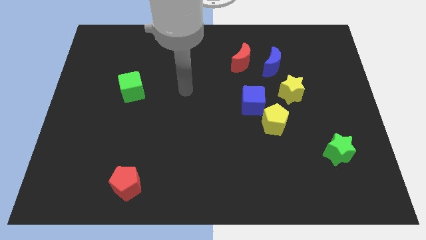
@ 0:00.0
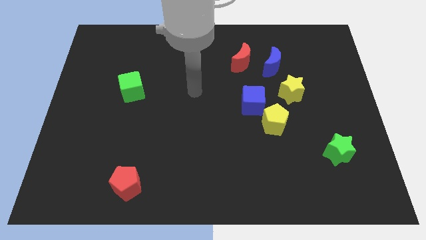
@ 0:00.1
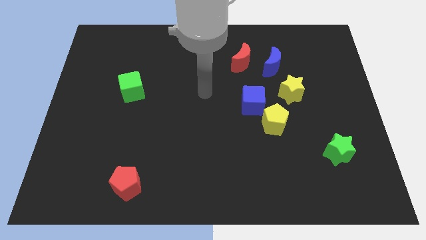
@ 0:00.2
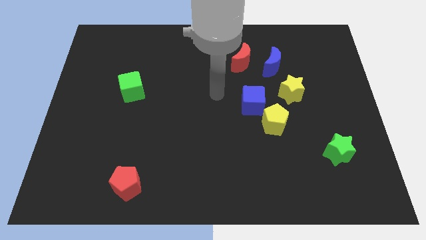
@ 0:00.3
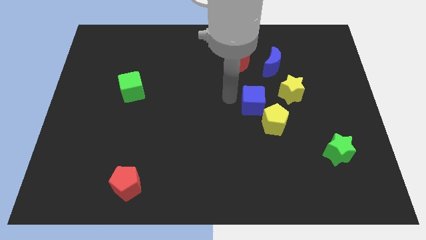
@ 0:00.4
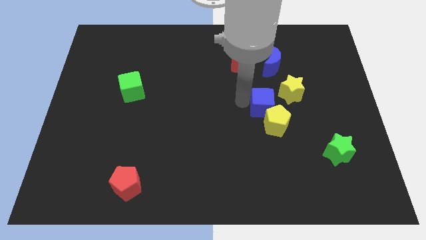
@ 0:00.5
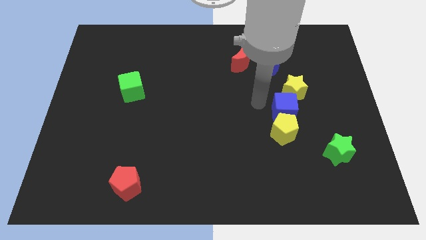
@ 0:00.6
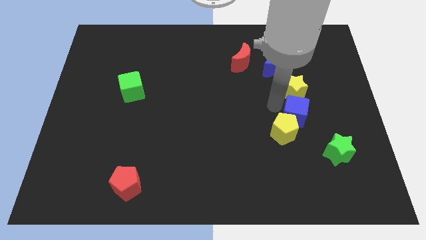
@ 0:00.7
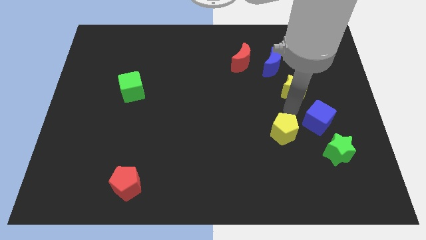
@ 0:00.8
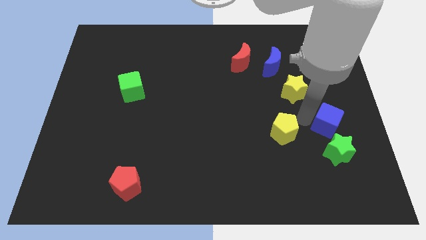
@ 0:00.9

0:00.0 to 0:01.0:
separate the yellow pentagon from the blue cube

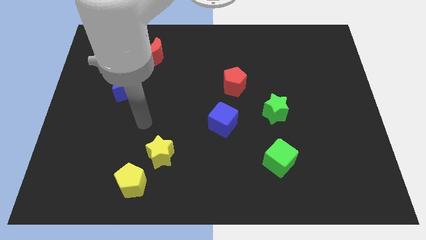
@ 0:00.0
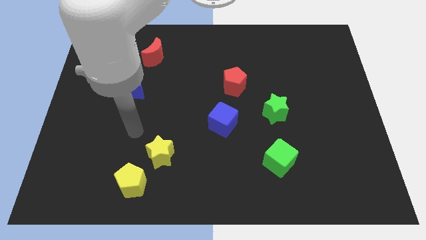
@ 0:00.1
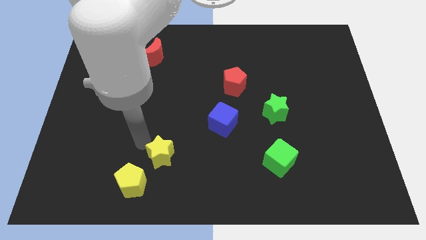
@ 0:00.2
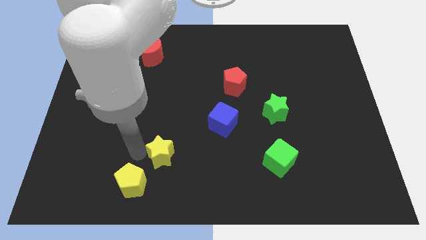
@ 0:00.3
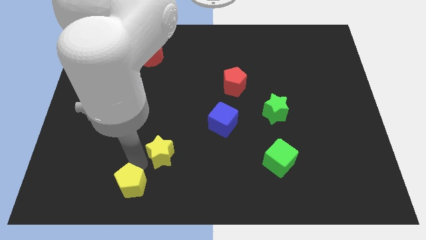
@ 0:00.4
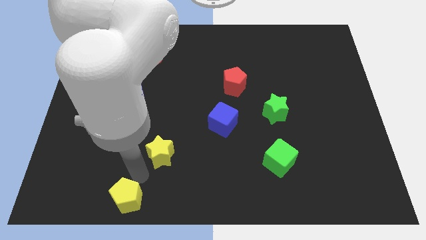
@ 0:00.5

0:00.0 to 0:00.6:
pull the yellow star apart from the yellow pentagon

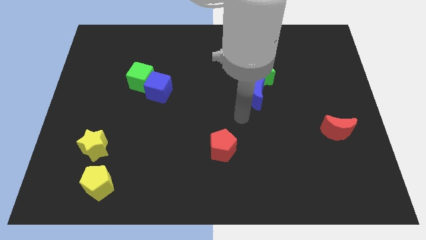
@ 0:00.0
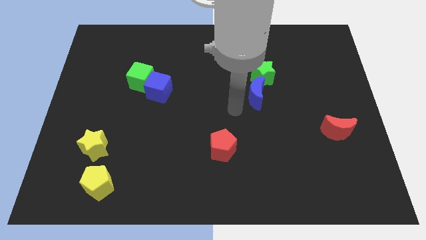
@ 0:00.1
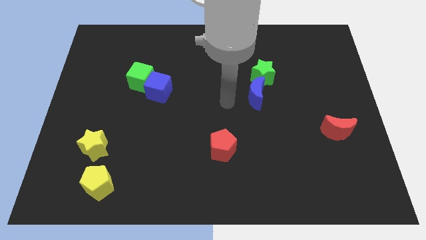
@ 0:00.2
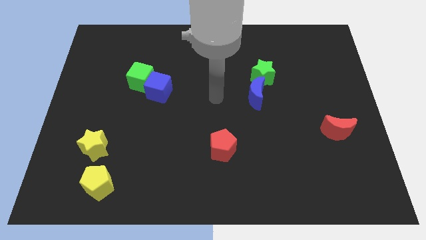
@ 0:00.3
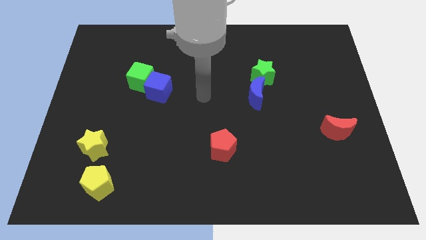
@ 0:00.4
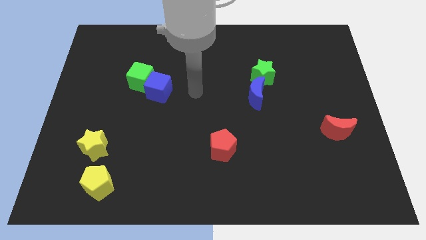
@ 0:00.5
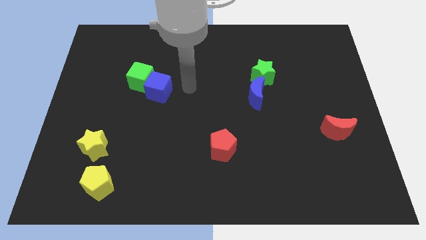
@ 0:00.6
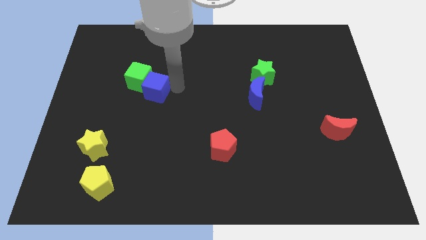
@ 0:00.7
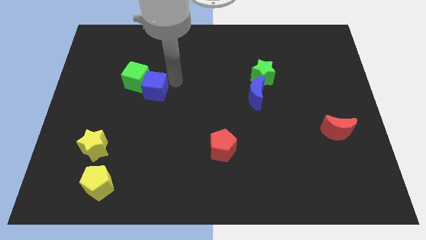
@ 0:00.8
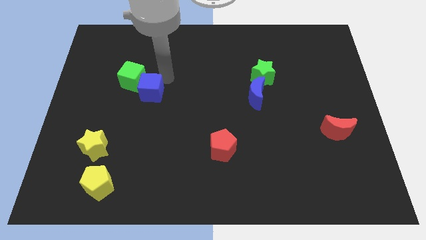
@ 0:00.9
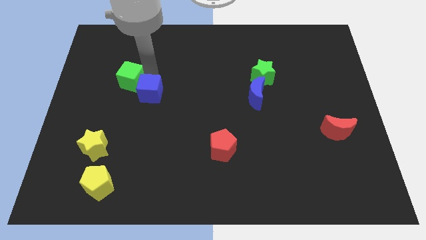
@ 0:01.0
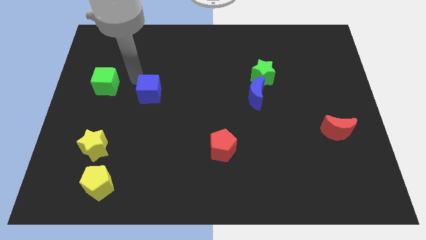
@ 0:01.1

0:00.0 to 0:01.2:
separate the blue cube from the green cube

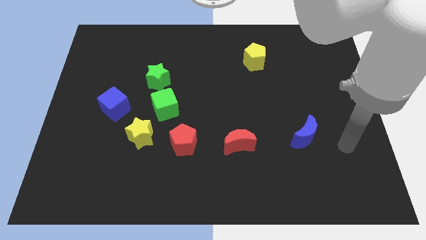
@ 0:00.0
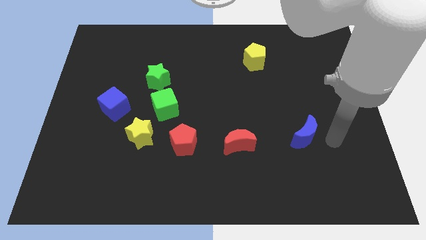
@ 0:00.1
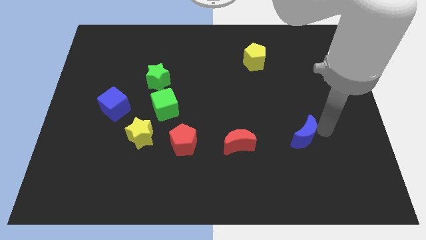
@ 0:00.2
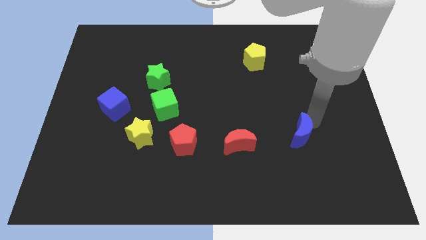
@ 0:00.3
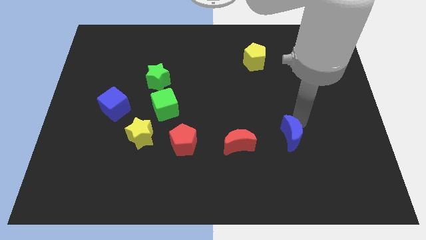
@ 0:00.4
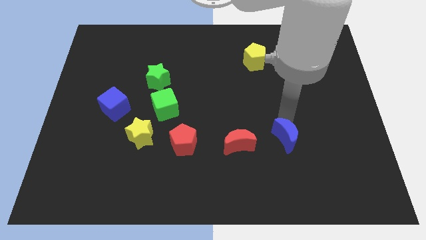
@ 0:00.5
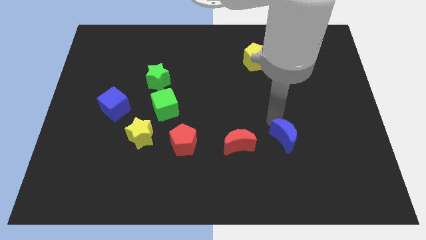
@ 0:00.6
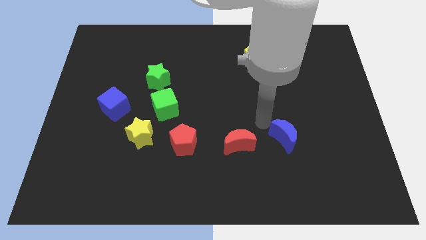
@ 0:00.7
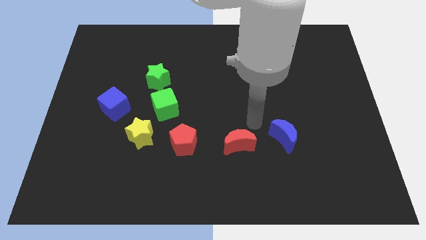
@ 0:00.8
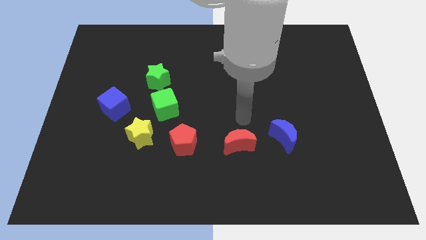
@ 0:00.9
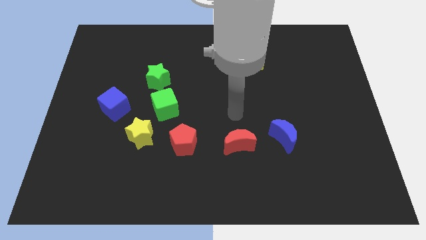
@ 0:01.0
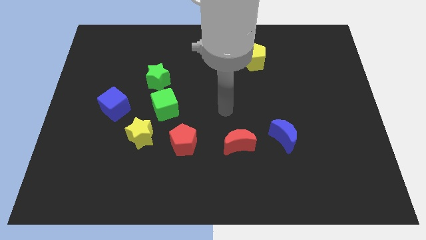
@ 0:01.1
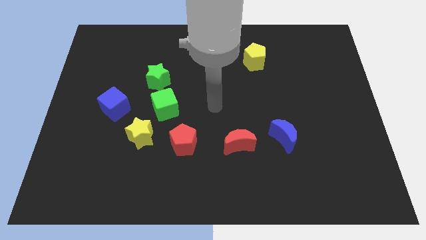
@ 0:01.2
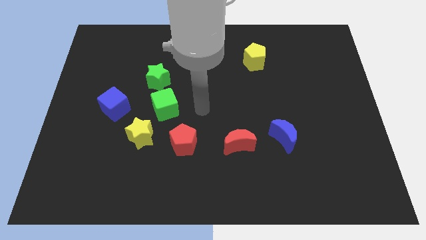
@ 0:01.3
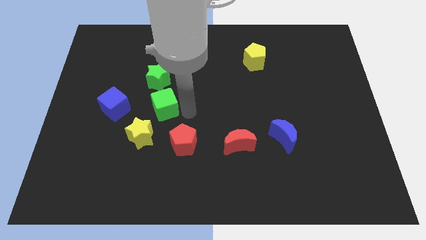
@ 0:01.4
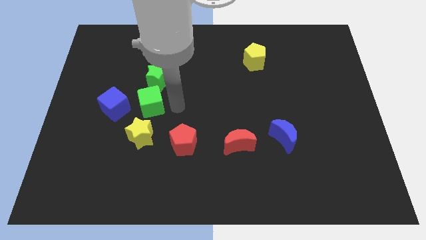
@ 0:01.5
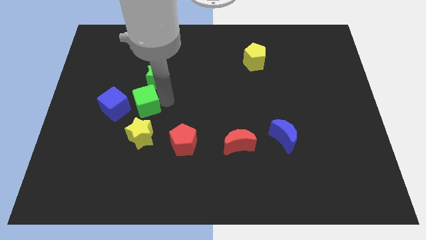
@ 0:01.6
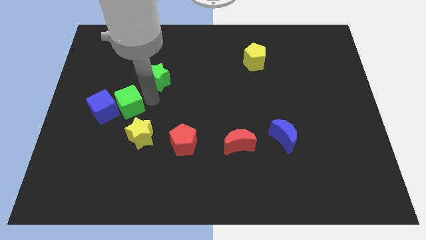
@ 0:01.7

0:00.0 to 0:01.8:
pull the green star apart from the green cube

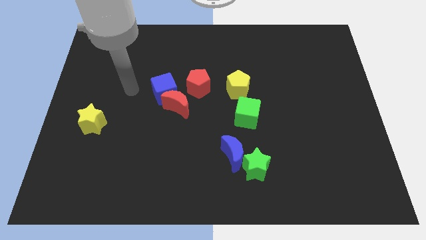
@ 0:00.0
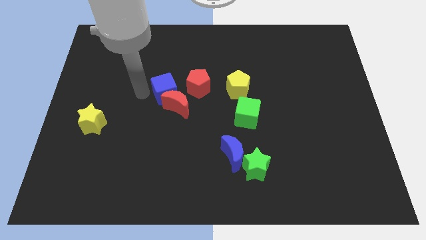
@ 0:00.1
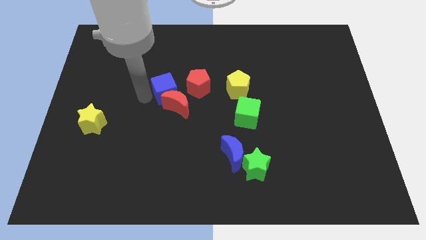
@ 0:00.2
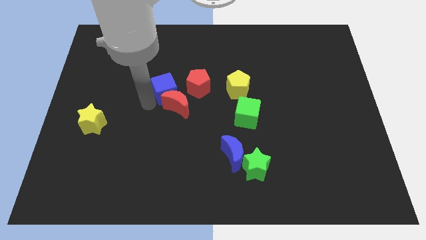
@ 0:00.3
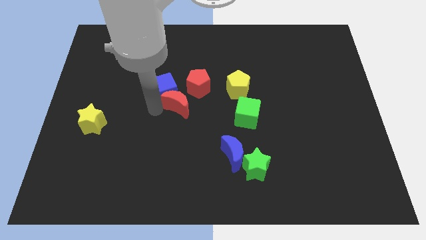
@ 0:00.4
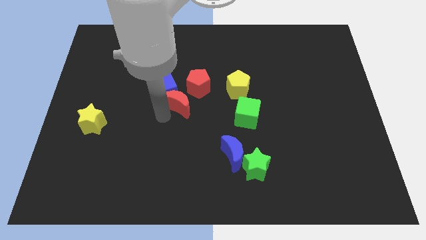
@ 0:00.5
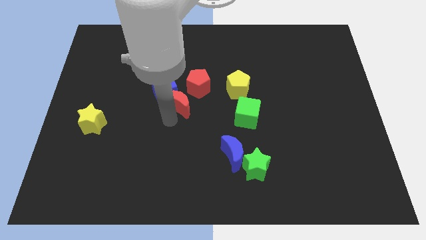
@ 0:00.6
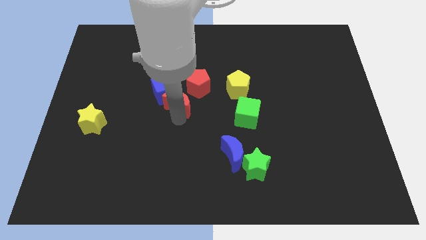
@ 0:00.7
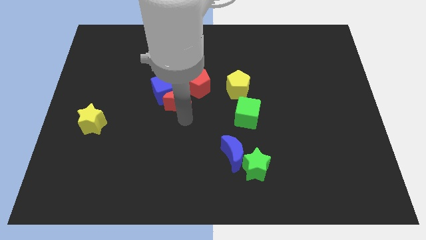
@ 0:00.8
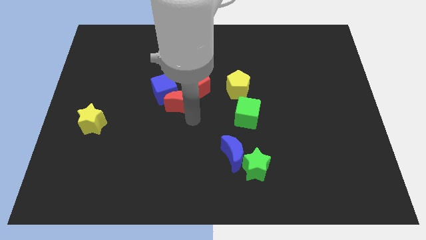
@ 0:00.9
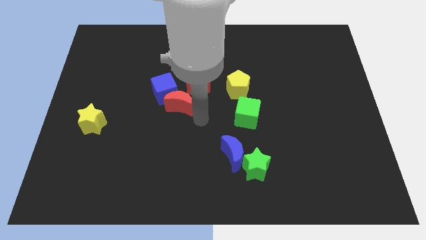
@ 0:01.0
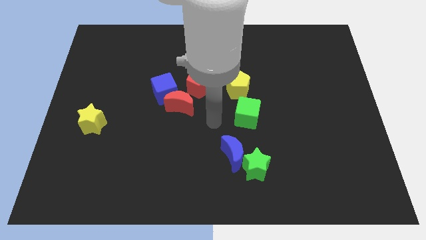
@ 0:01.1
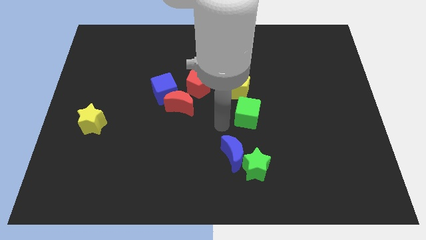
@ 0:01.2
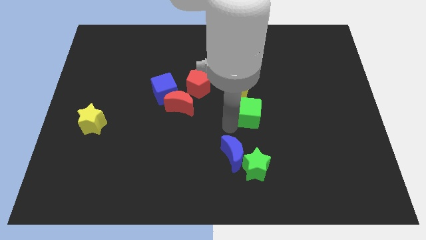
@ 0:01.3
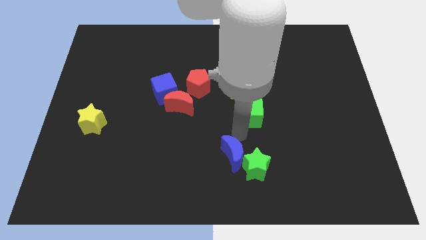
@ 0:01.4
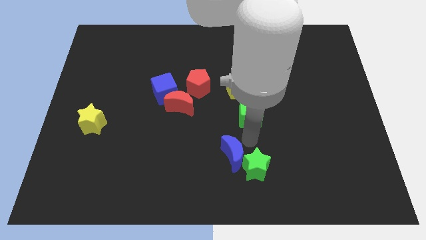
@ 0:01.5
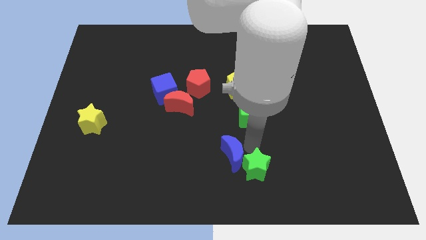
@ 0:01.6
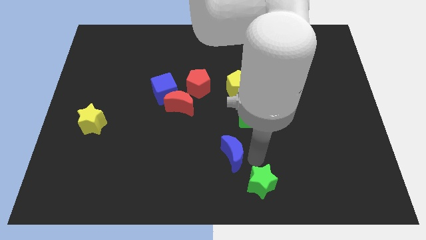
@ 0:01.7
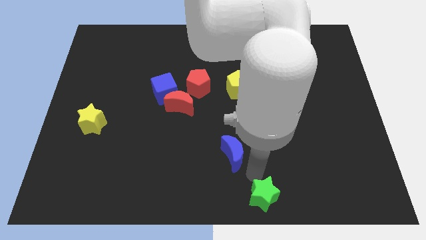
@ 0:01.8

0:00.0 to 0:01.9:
separate the blue moon from the green star

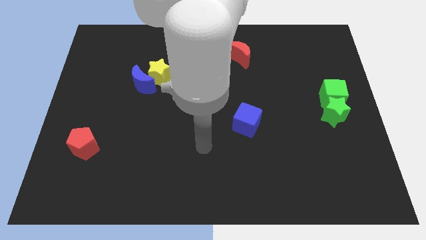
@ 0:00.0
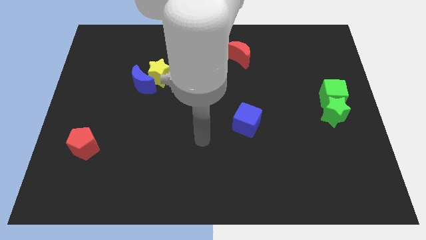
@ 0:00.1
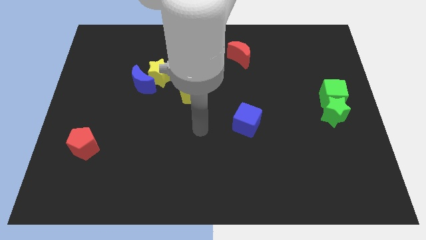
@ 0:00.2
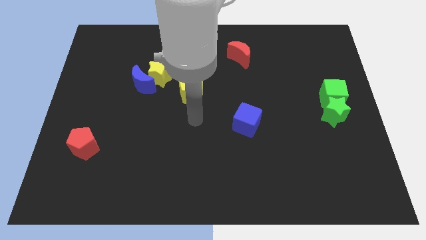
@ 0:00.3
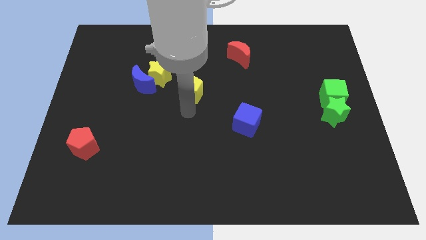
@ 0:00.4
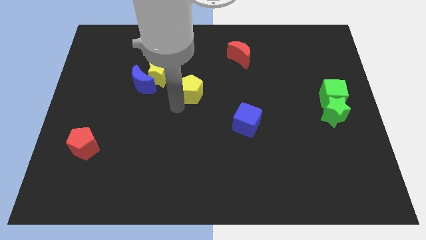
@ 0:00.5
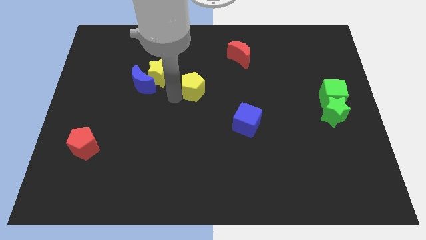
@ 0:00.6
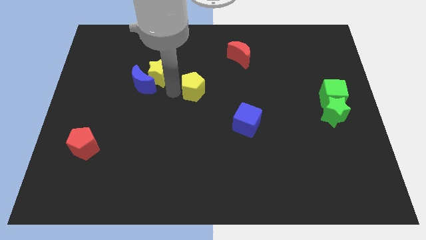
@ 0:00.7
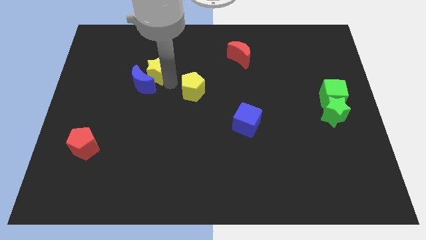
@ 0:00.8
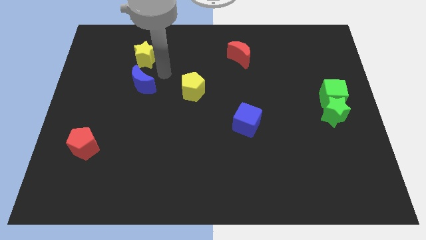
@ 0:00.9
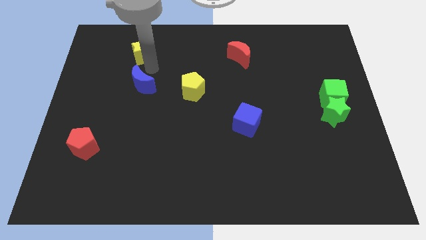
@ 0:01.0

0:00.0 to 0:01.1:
separate the blue moon from the yellow star

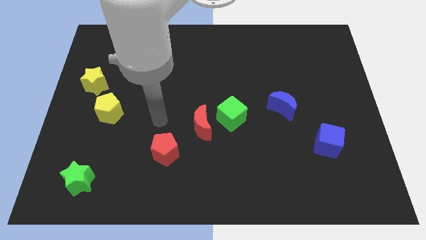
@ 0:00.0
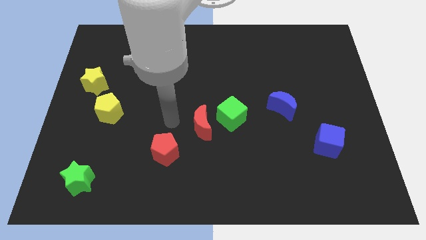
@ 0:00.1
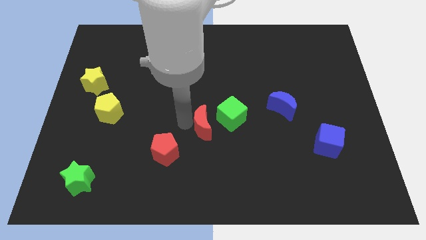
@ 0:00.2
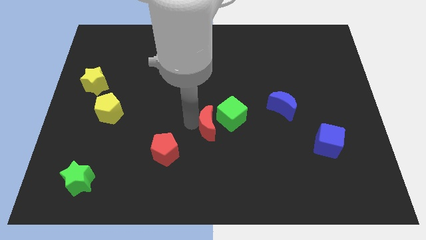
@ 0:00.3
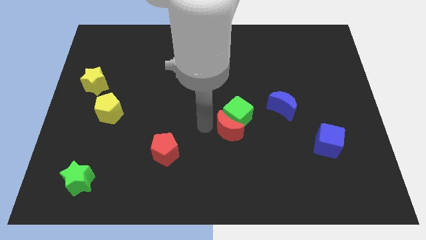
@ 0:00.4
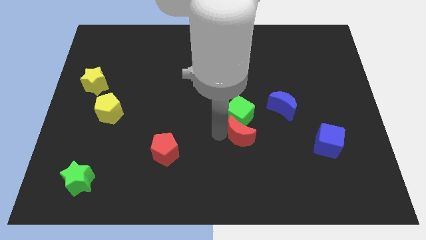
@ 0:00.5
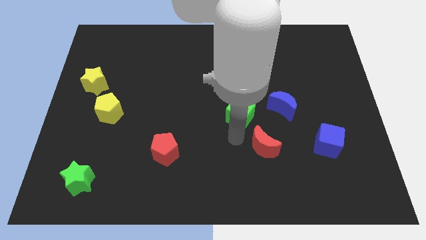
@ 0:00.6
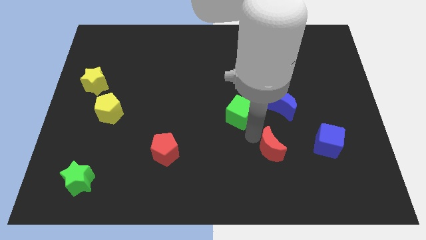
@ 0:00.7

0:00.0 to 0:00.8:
move the green cube away from the red moon

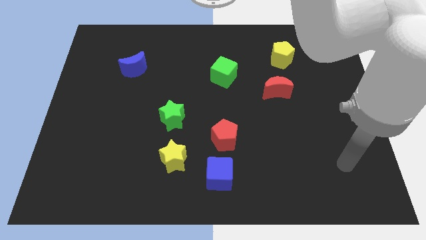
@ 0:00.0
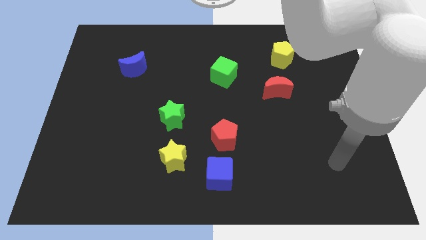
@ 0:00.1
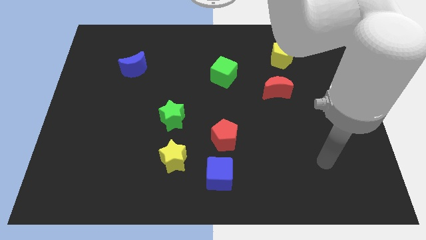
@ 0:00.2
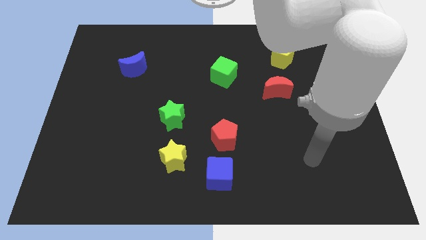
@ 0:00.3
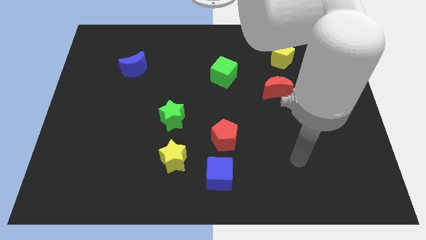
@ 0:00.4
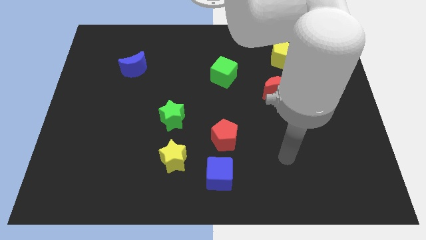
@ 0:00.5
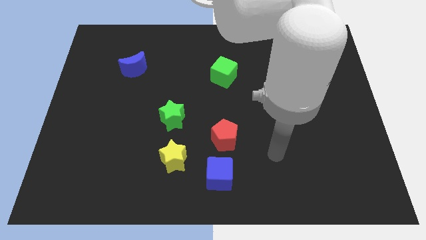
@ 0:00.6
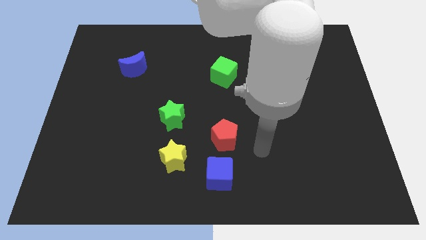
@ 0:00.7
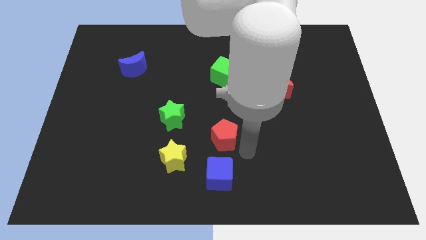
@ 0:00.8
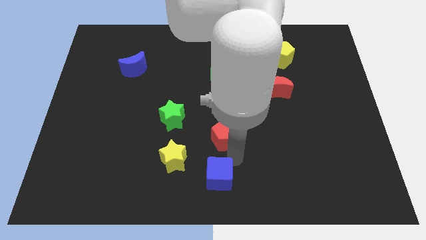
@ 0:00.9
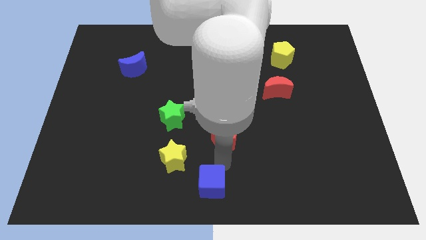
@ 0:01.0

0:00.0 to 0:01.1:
separate the red pentagon from the blue cube
